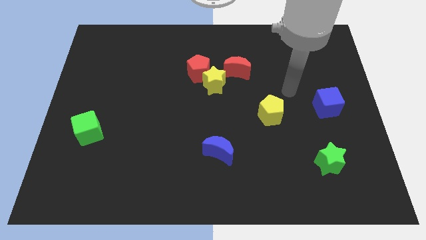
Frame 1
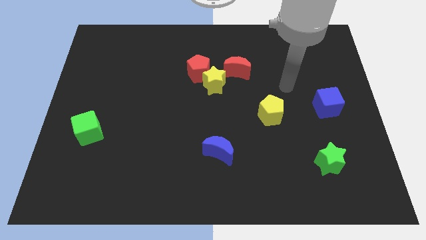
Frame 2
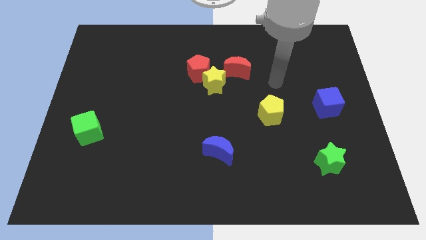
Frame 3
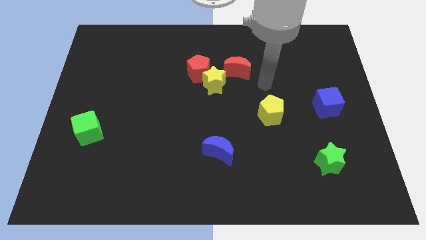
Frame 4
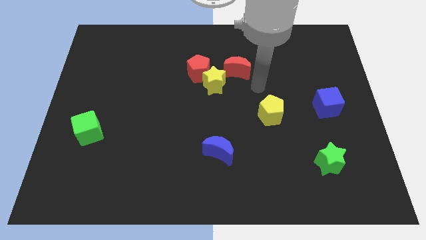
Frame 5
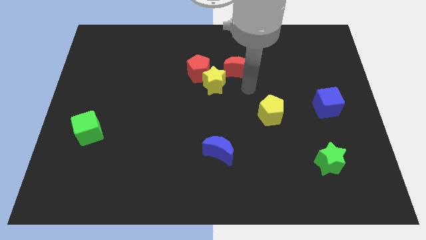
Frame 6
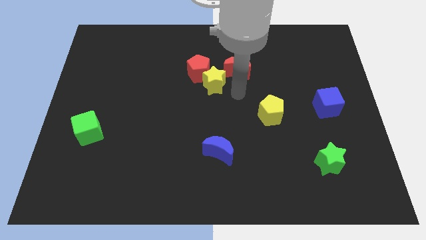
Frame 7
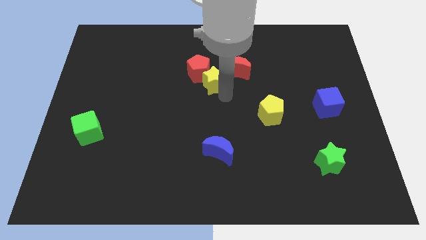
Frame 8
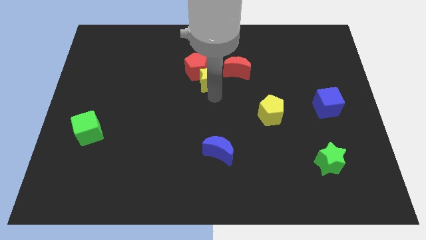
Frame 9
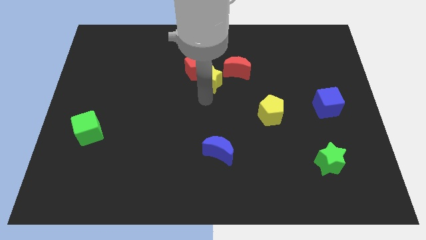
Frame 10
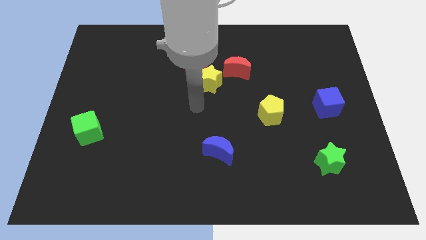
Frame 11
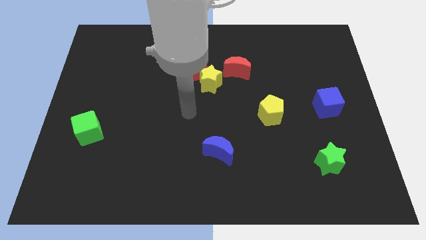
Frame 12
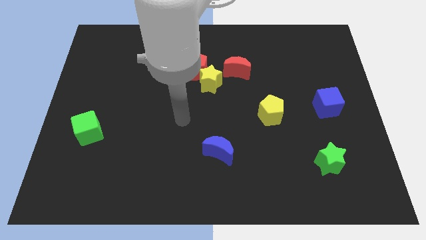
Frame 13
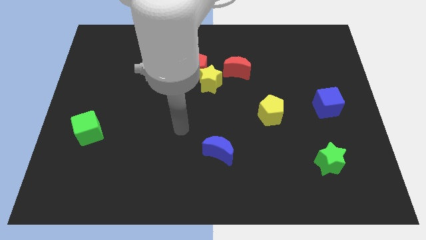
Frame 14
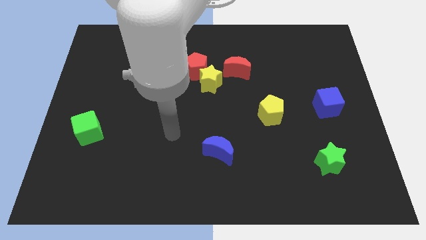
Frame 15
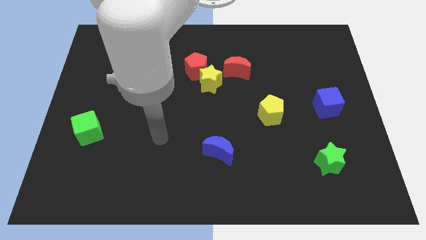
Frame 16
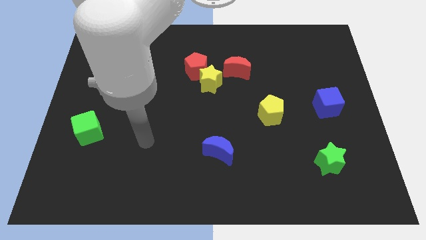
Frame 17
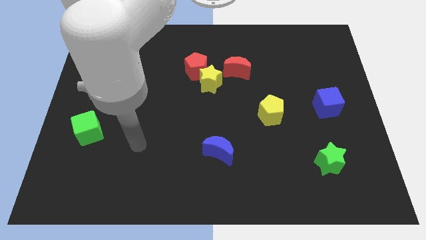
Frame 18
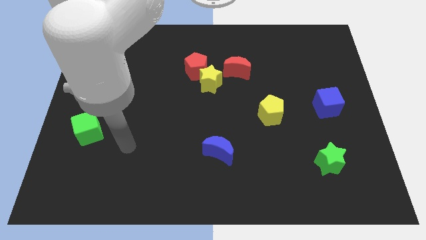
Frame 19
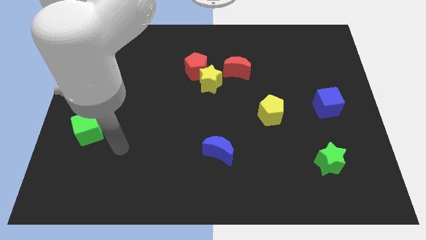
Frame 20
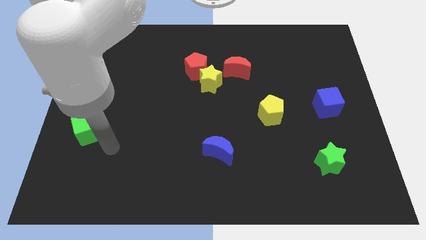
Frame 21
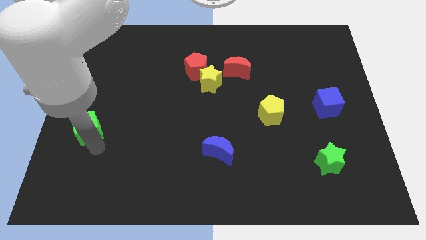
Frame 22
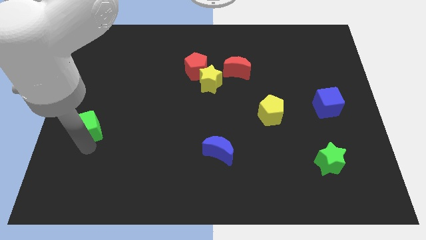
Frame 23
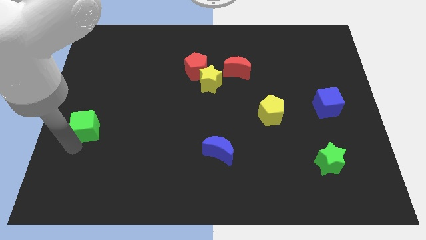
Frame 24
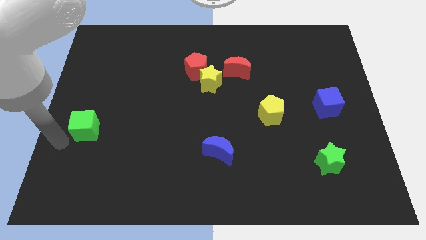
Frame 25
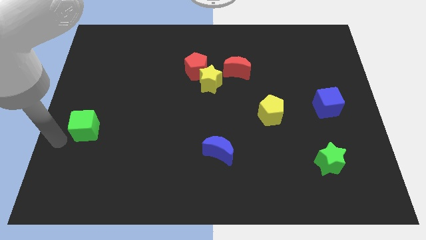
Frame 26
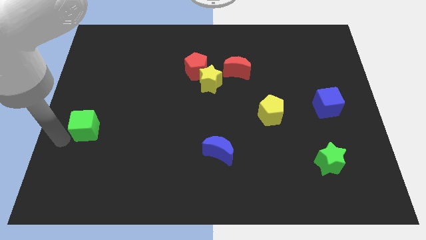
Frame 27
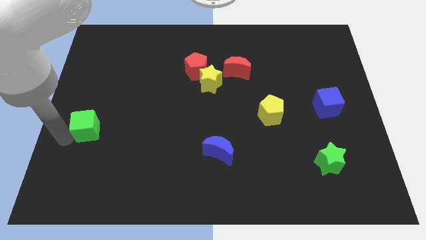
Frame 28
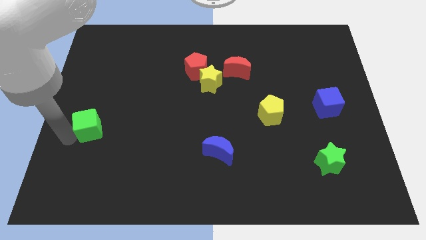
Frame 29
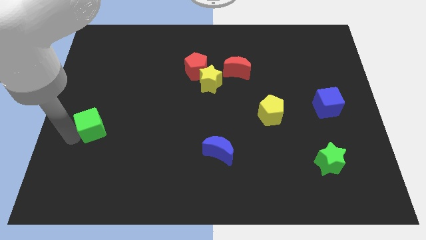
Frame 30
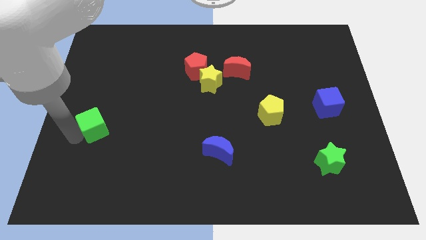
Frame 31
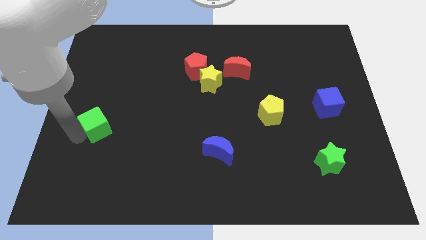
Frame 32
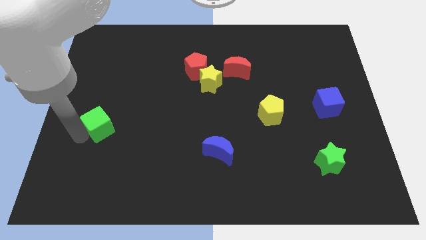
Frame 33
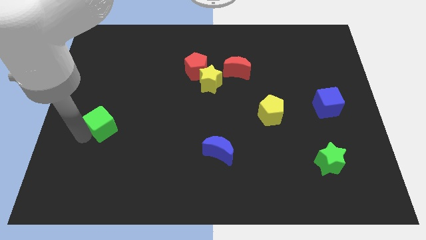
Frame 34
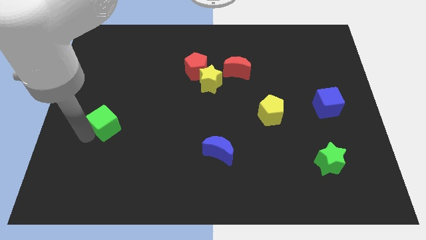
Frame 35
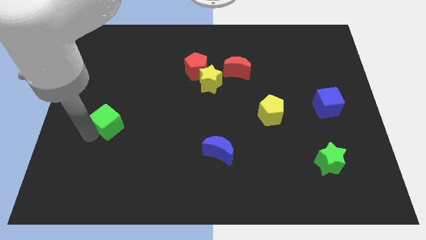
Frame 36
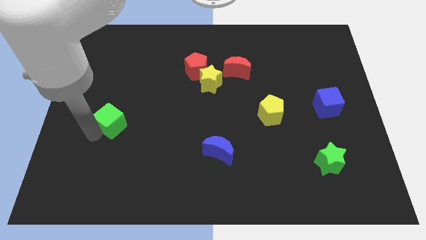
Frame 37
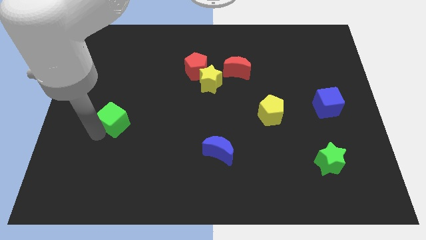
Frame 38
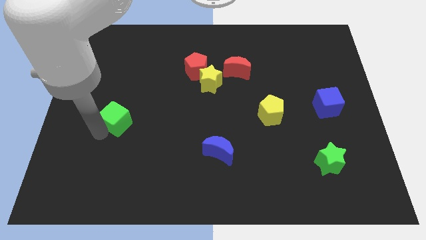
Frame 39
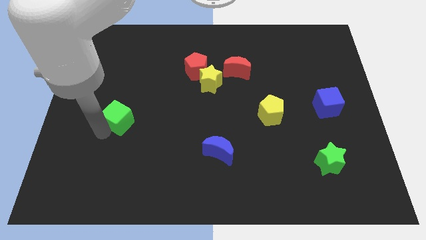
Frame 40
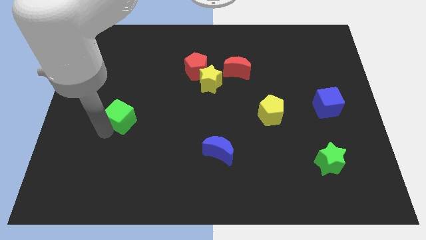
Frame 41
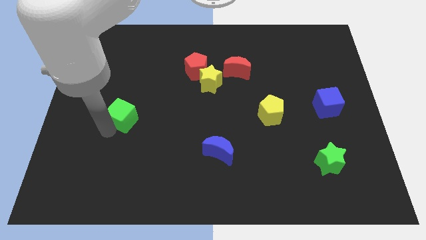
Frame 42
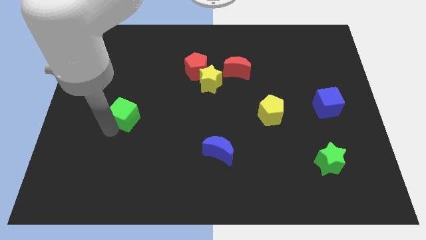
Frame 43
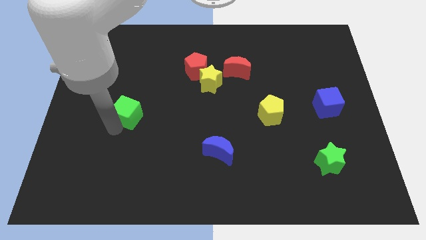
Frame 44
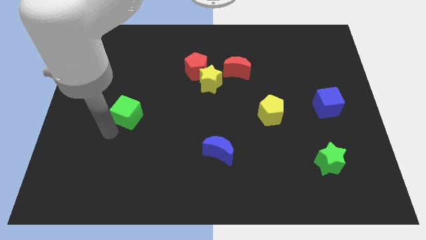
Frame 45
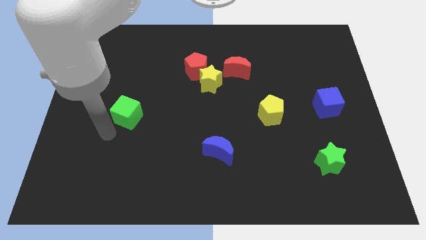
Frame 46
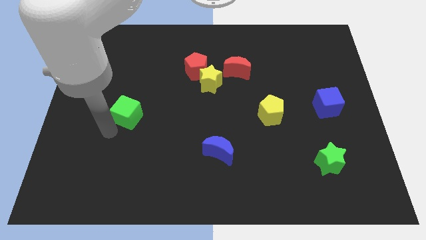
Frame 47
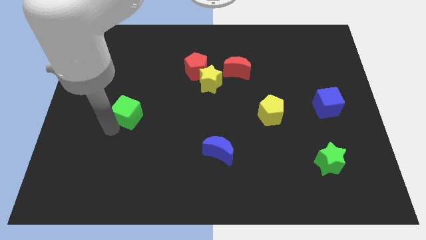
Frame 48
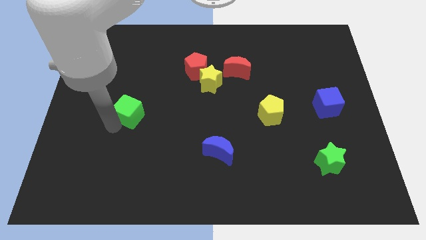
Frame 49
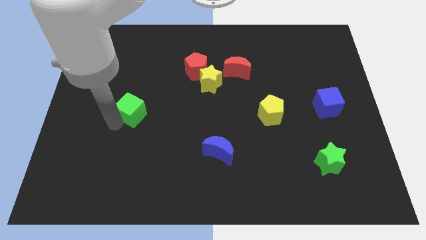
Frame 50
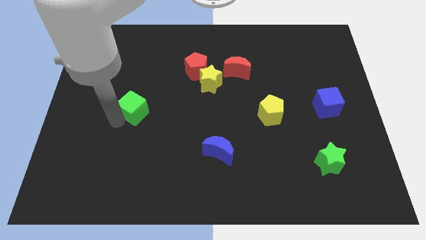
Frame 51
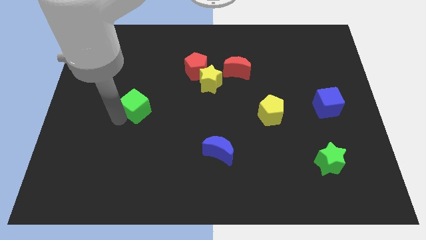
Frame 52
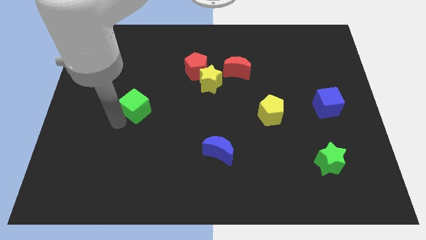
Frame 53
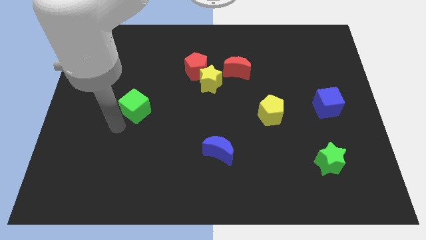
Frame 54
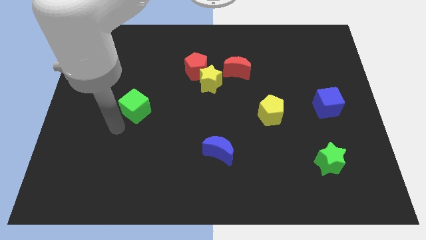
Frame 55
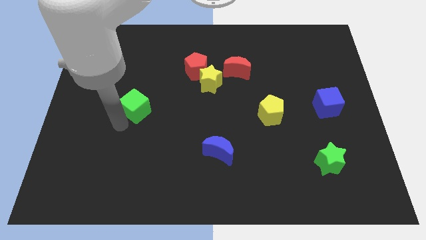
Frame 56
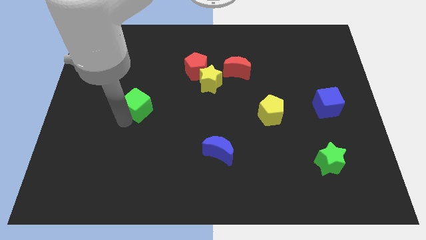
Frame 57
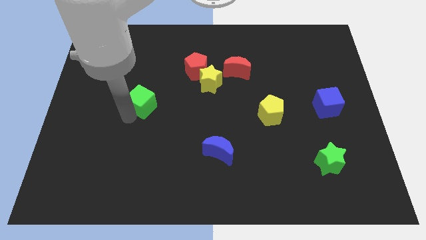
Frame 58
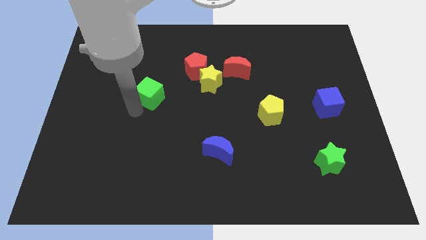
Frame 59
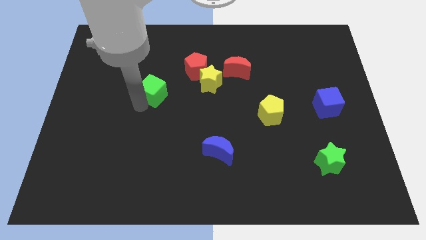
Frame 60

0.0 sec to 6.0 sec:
move the green cube to the left of the yellow star

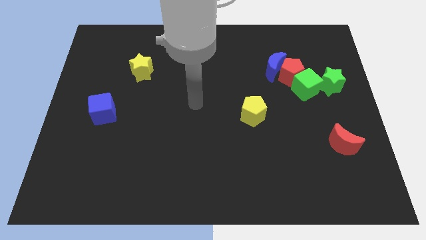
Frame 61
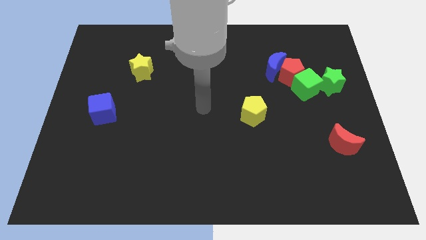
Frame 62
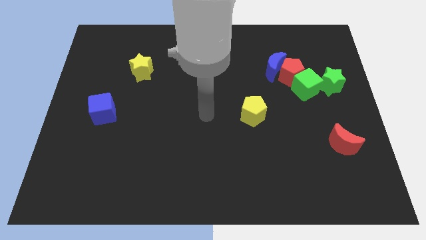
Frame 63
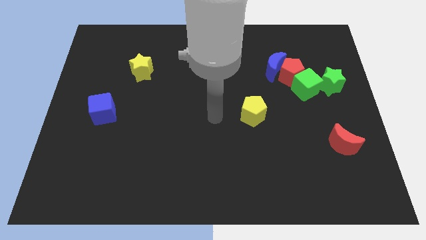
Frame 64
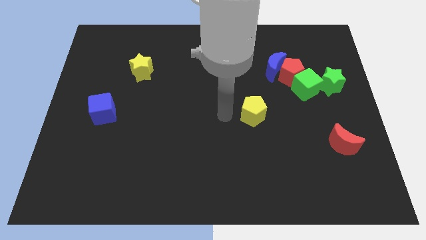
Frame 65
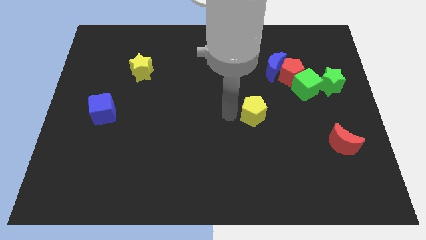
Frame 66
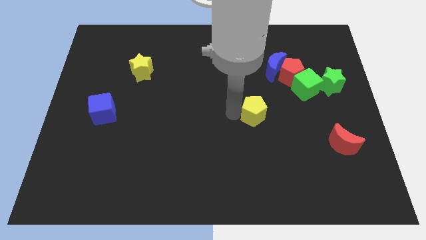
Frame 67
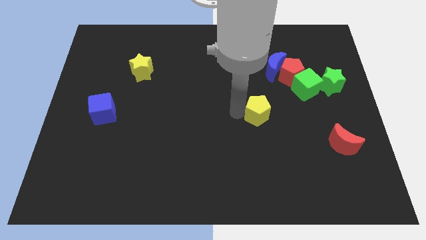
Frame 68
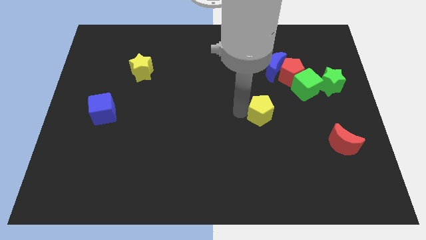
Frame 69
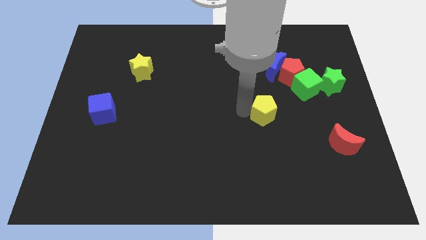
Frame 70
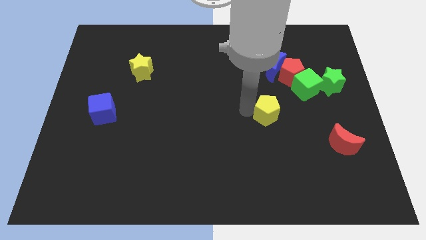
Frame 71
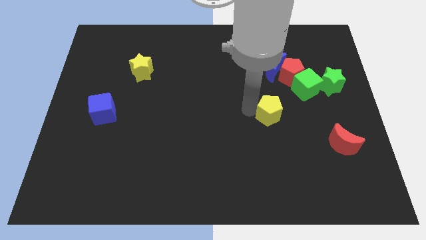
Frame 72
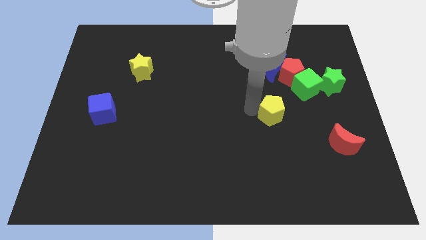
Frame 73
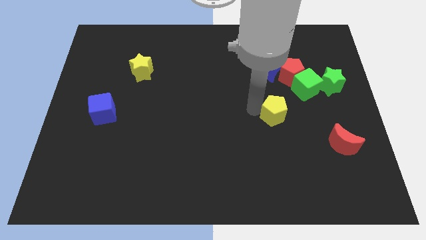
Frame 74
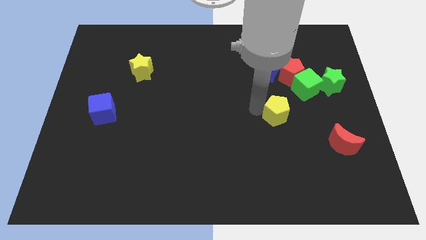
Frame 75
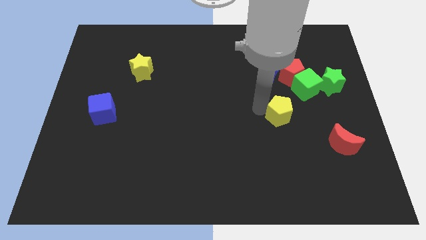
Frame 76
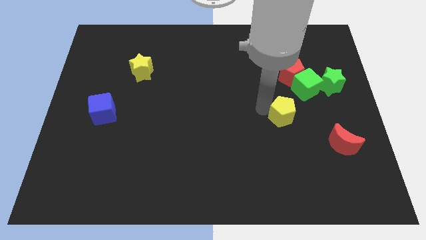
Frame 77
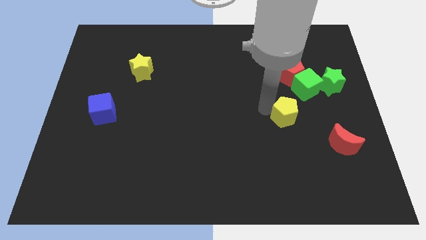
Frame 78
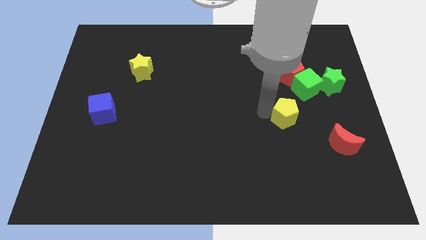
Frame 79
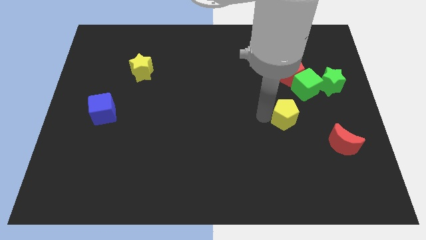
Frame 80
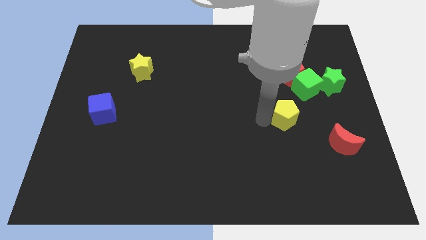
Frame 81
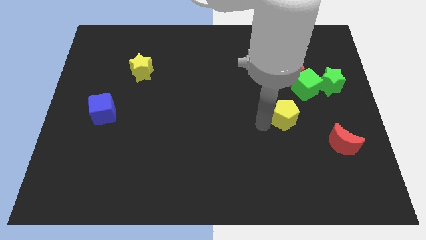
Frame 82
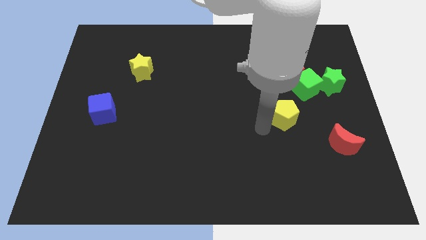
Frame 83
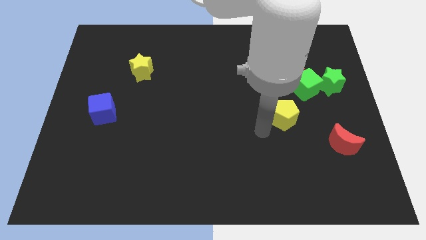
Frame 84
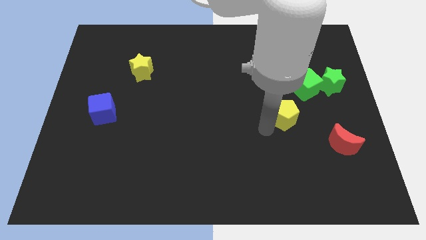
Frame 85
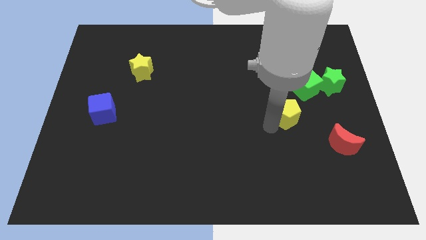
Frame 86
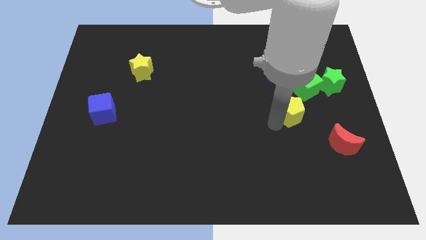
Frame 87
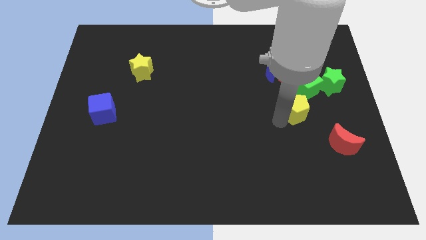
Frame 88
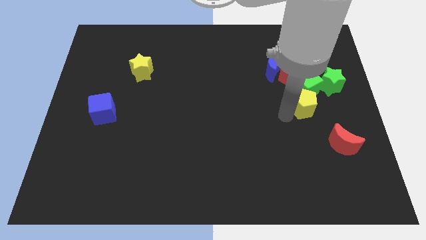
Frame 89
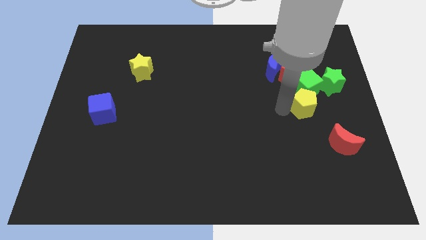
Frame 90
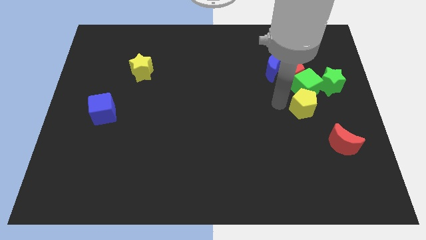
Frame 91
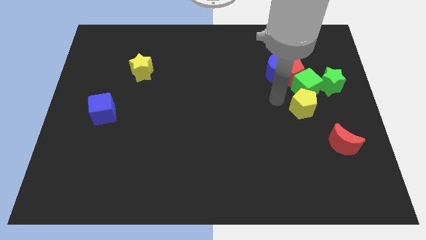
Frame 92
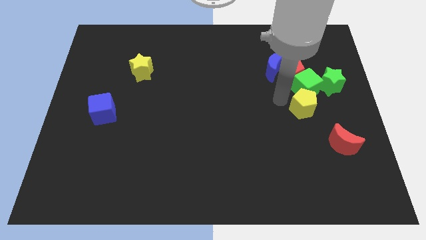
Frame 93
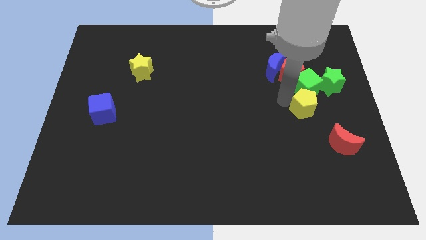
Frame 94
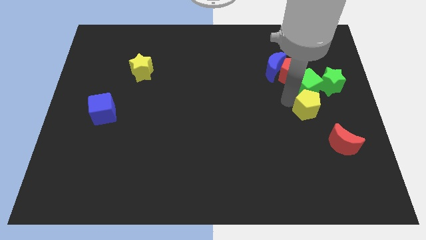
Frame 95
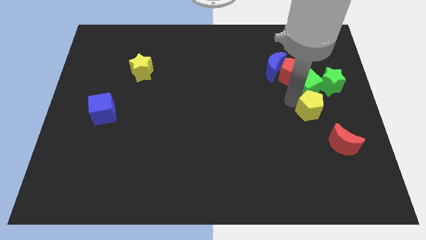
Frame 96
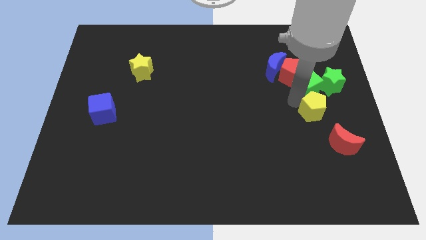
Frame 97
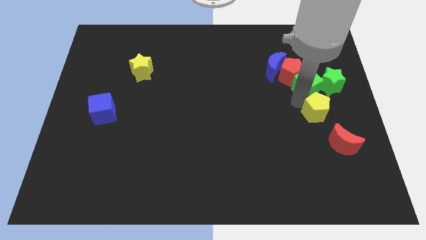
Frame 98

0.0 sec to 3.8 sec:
move the yellow pentagon to the bottom side of the green star
